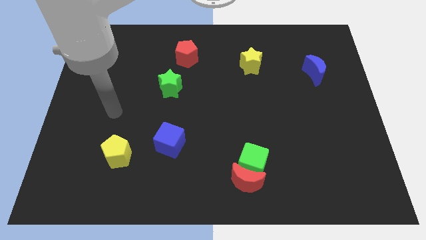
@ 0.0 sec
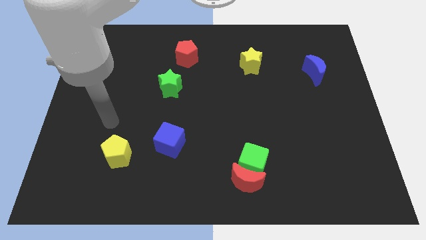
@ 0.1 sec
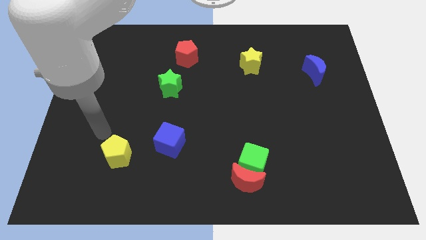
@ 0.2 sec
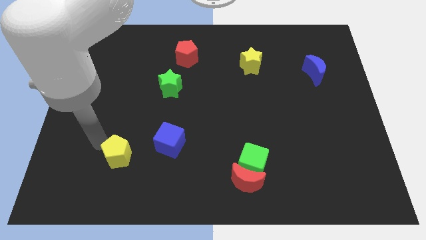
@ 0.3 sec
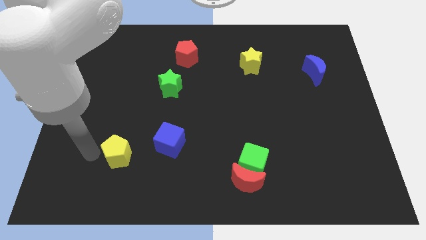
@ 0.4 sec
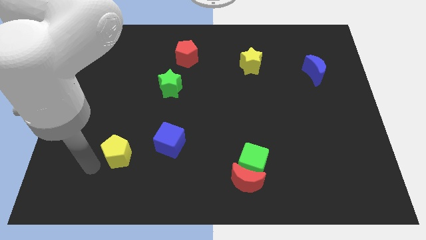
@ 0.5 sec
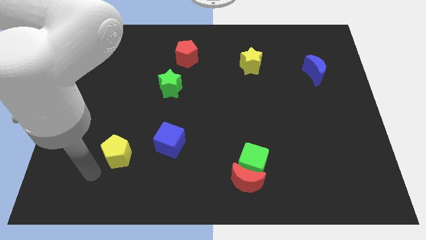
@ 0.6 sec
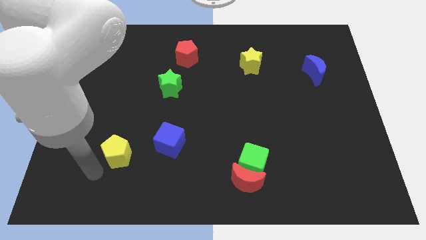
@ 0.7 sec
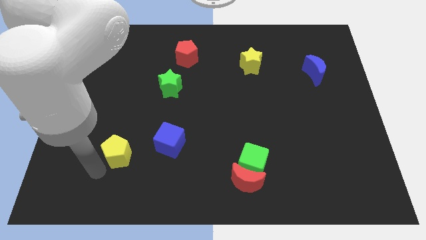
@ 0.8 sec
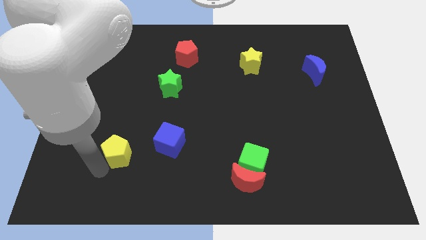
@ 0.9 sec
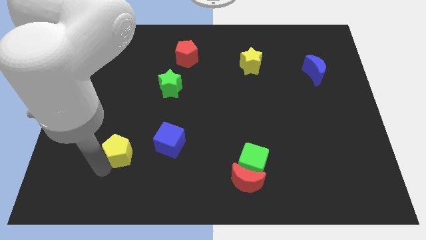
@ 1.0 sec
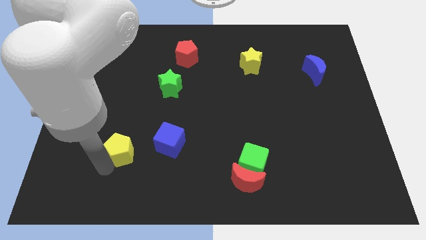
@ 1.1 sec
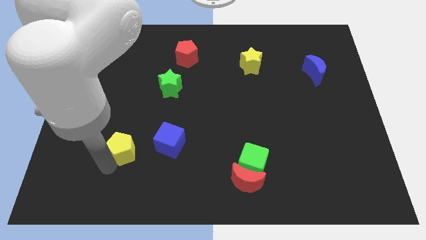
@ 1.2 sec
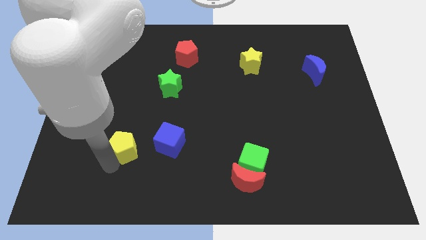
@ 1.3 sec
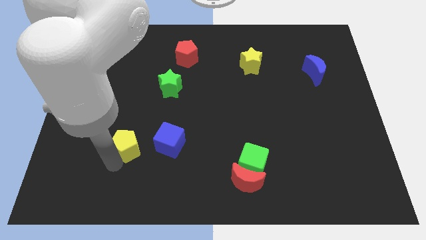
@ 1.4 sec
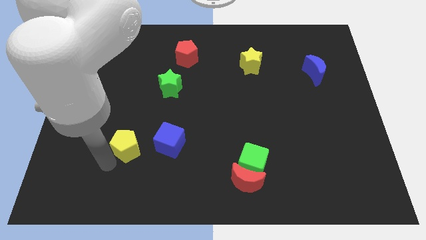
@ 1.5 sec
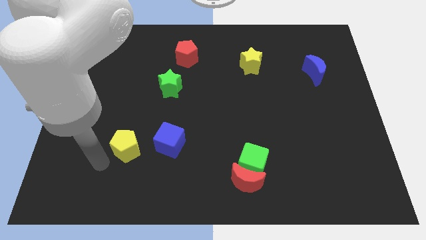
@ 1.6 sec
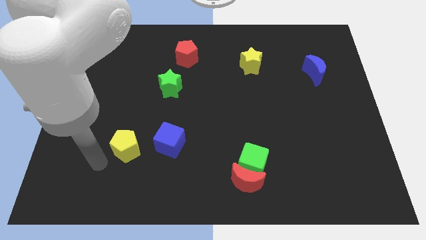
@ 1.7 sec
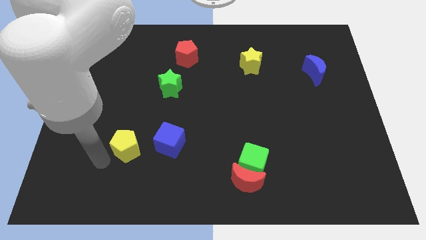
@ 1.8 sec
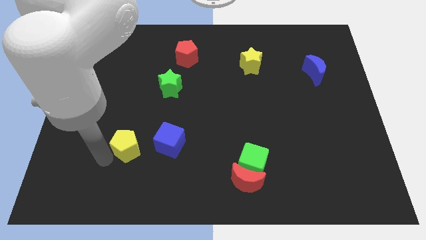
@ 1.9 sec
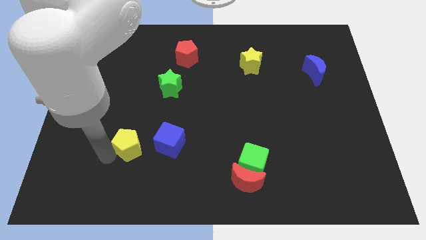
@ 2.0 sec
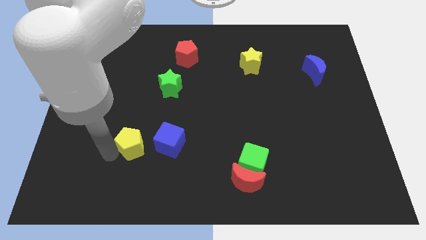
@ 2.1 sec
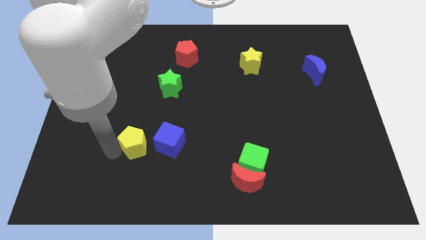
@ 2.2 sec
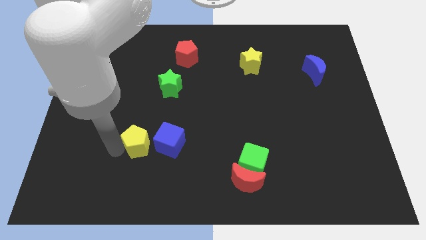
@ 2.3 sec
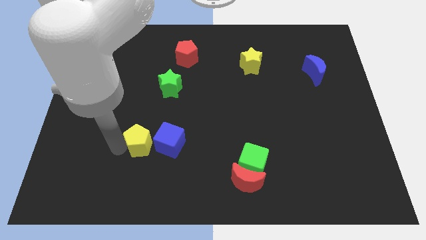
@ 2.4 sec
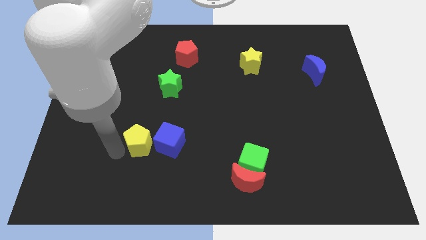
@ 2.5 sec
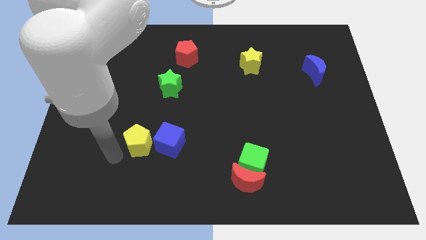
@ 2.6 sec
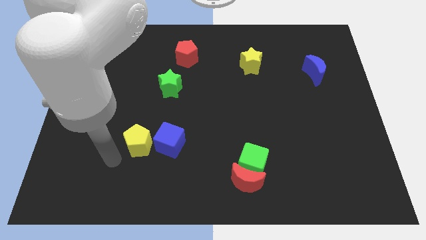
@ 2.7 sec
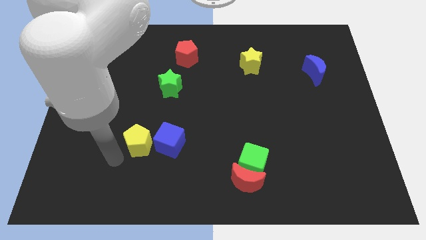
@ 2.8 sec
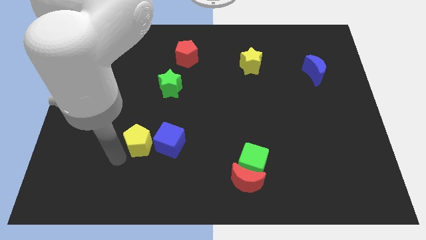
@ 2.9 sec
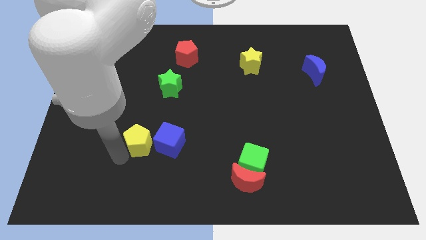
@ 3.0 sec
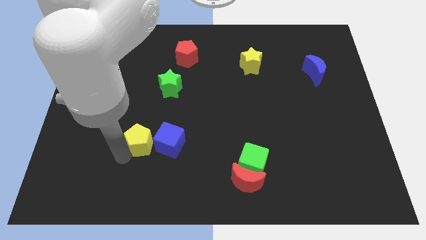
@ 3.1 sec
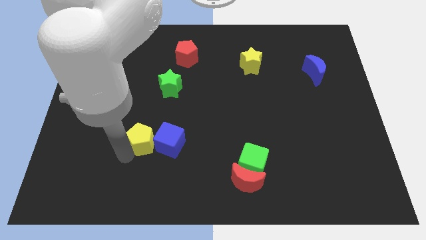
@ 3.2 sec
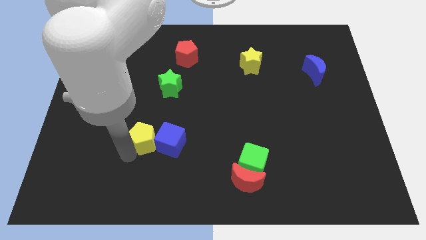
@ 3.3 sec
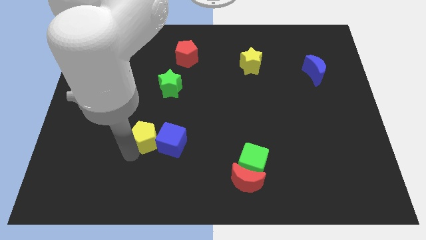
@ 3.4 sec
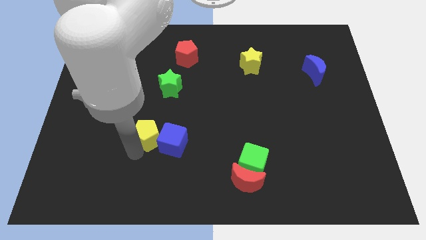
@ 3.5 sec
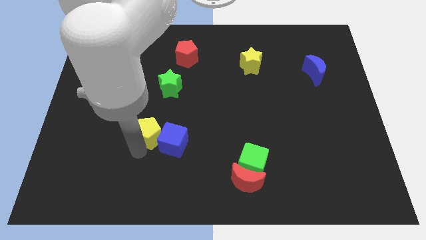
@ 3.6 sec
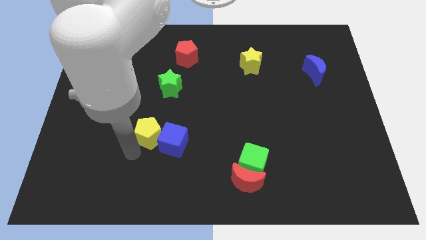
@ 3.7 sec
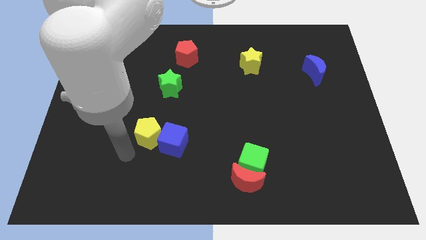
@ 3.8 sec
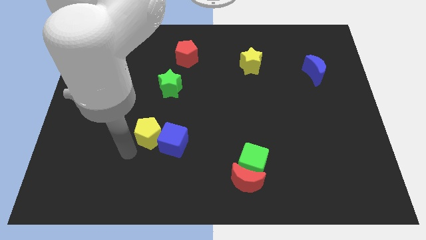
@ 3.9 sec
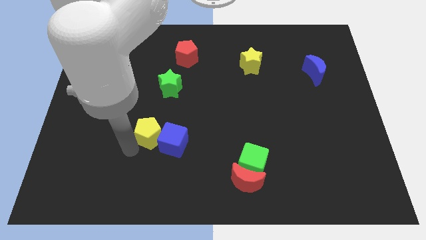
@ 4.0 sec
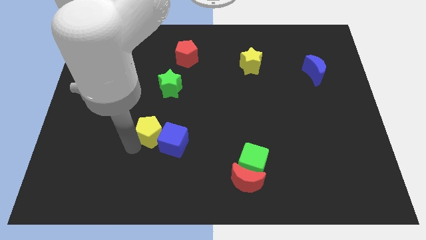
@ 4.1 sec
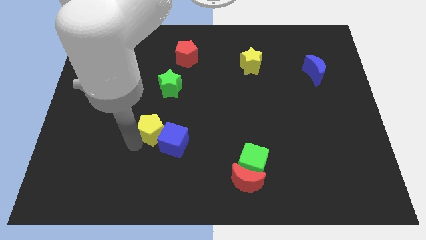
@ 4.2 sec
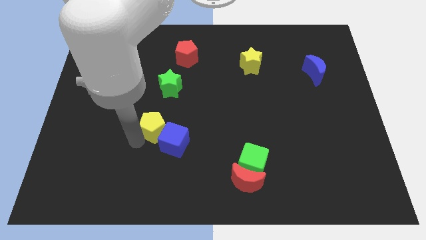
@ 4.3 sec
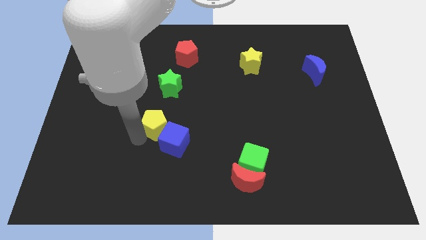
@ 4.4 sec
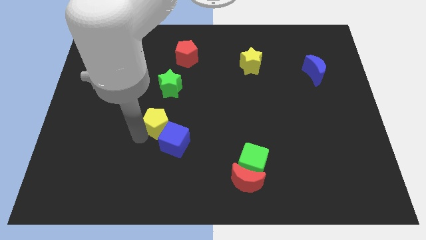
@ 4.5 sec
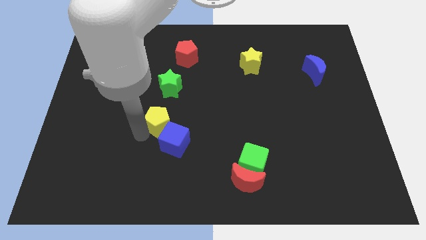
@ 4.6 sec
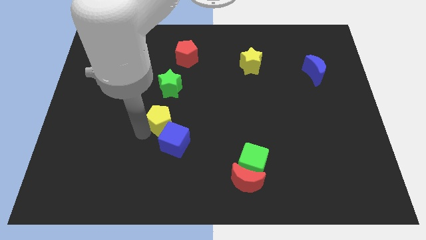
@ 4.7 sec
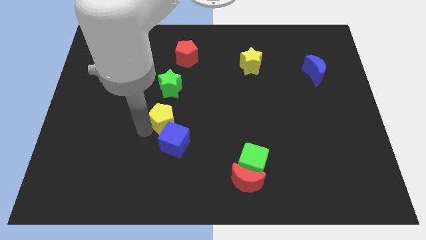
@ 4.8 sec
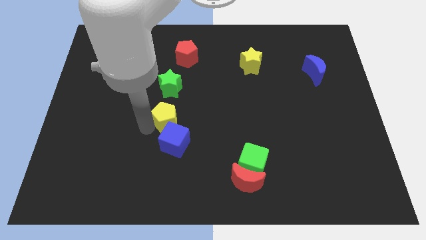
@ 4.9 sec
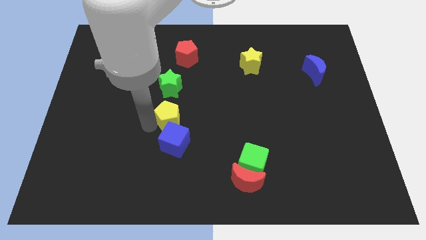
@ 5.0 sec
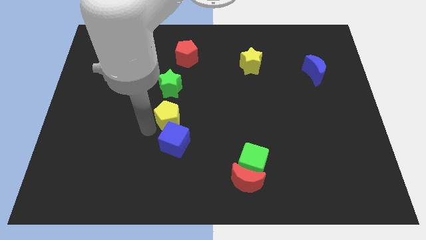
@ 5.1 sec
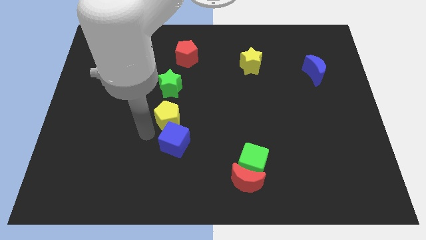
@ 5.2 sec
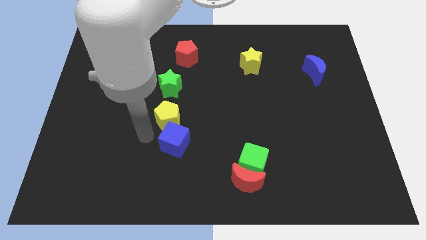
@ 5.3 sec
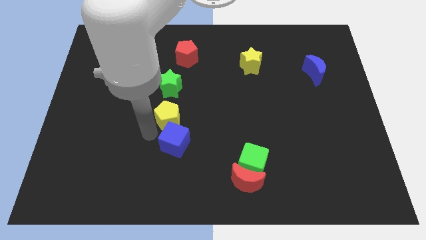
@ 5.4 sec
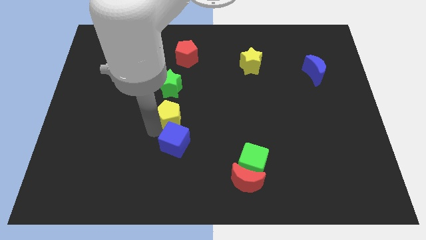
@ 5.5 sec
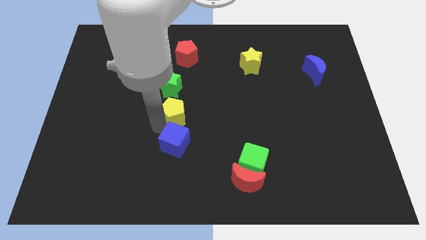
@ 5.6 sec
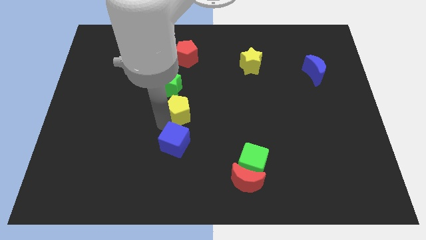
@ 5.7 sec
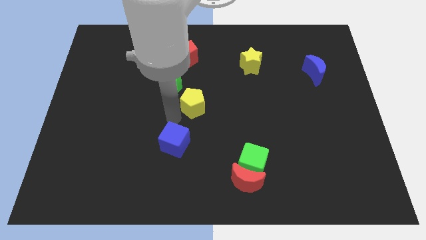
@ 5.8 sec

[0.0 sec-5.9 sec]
push the yellow pentagon upwards and right

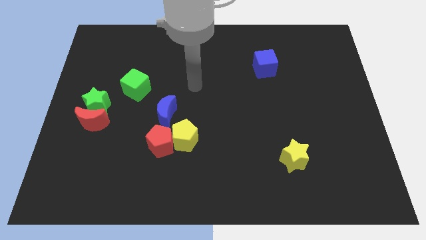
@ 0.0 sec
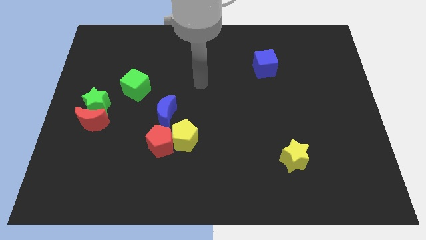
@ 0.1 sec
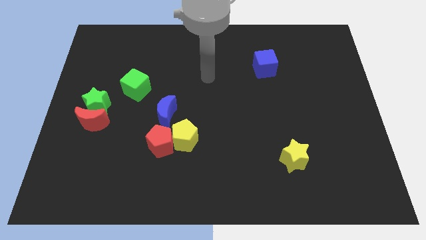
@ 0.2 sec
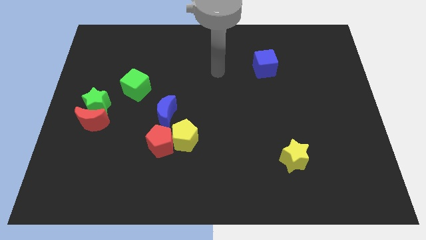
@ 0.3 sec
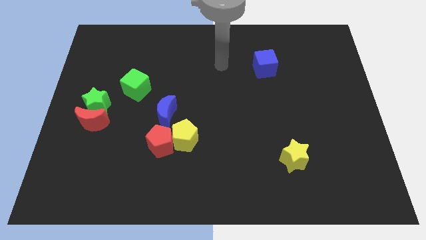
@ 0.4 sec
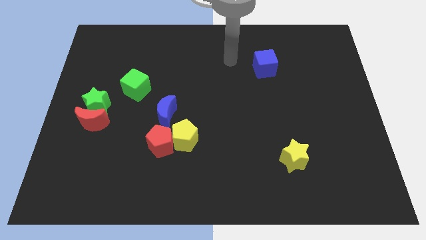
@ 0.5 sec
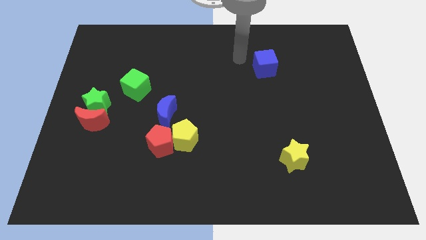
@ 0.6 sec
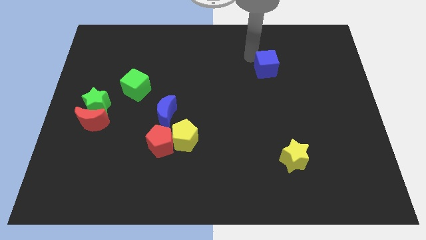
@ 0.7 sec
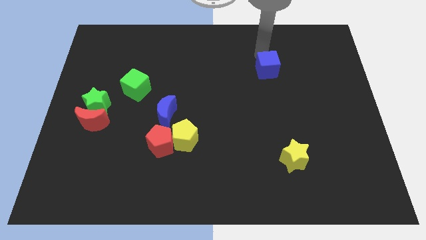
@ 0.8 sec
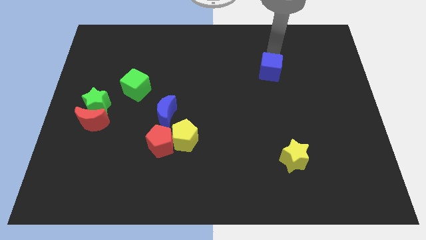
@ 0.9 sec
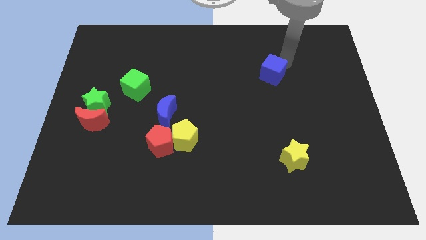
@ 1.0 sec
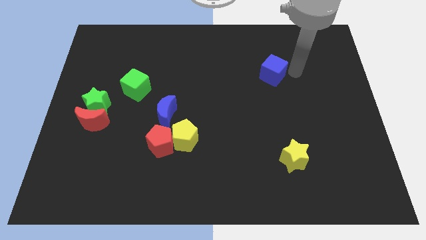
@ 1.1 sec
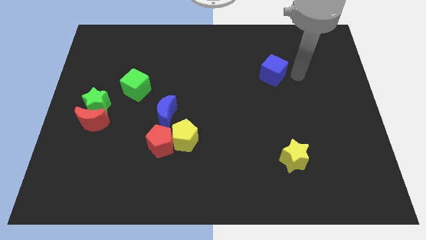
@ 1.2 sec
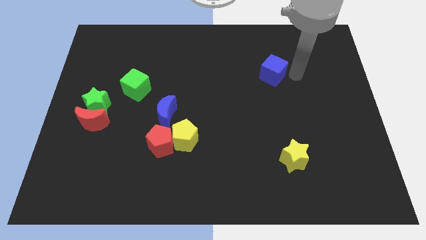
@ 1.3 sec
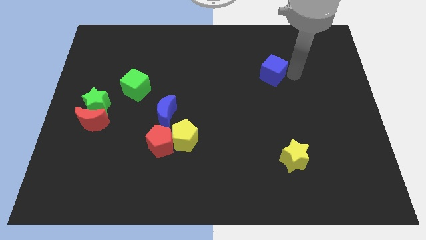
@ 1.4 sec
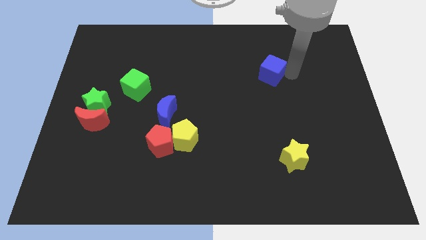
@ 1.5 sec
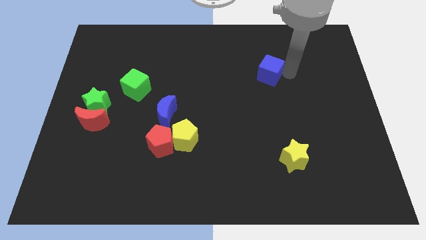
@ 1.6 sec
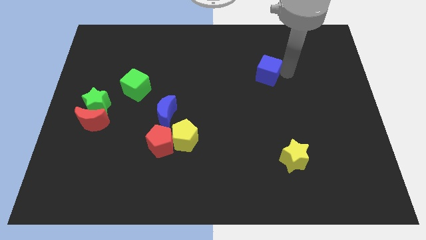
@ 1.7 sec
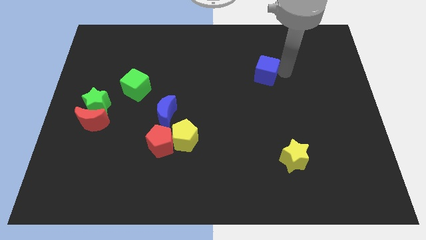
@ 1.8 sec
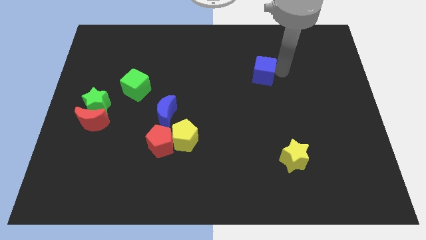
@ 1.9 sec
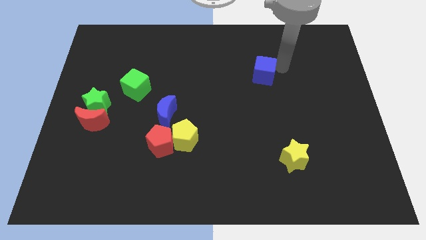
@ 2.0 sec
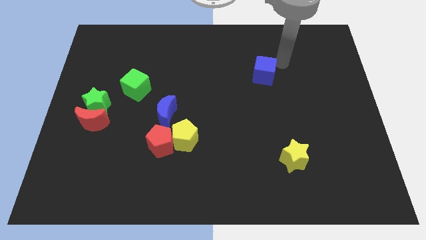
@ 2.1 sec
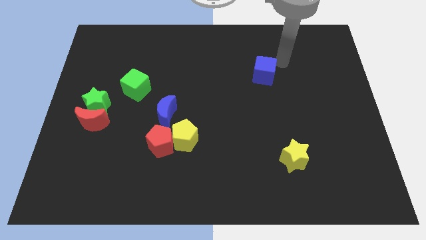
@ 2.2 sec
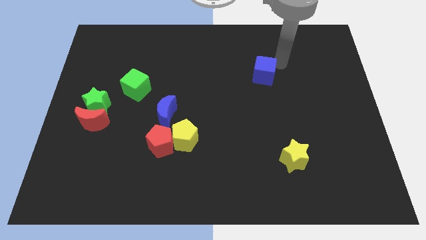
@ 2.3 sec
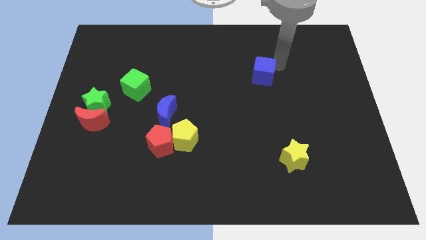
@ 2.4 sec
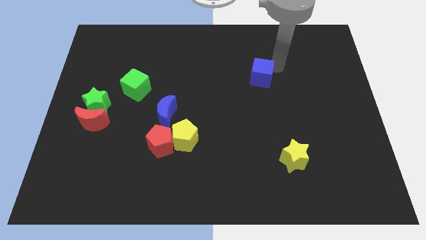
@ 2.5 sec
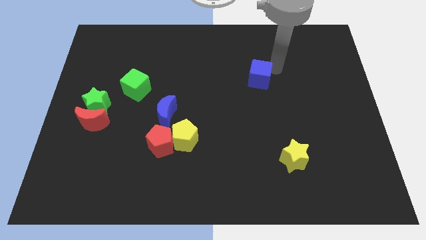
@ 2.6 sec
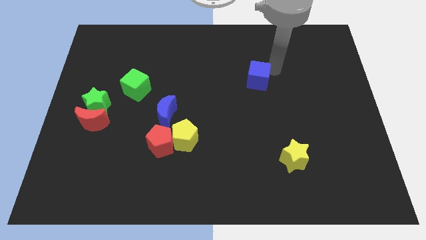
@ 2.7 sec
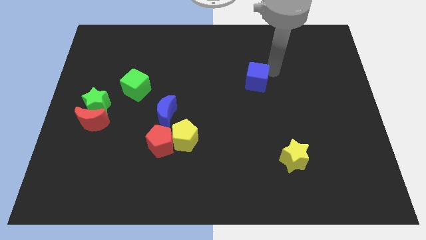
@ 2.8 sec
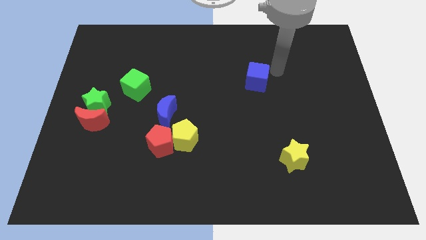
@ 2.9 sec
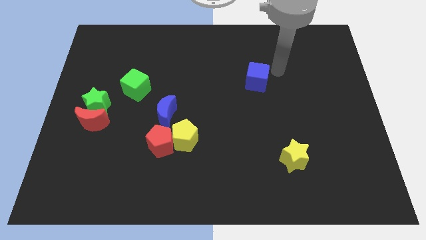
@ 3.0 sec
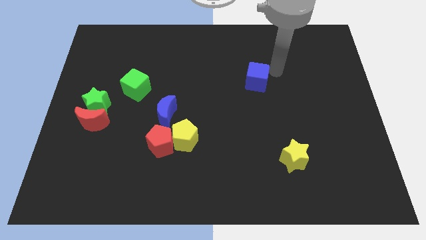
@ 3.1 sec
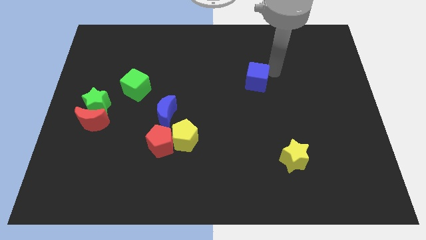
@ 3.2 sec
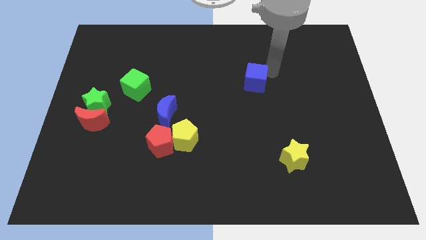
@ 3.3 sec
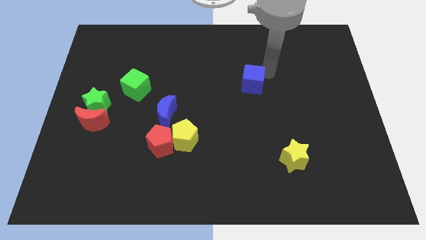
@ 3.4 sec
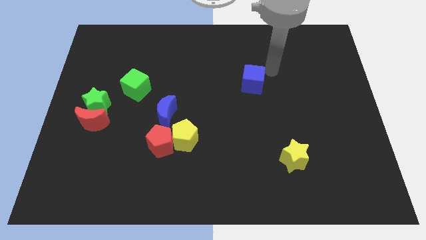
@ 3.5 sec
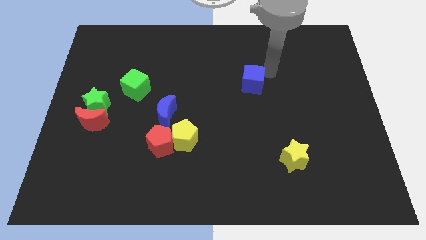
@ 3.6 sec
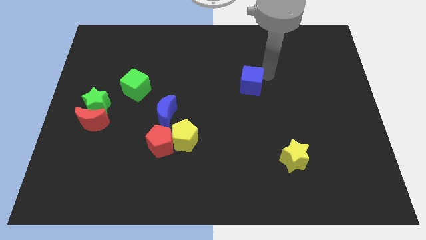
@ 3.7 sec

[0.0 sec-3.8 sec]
slightly slide the blue cube diagonally downwards and to the left
